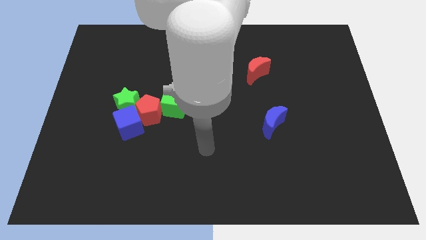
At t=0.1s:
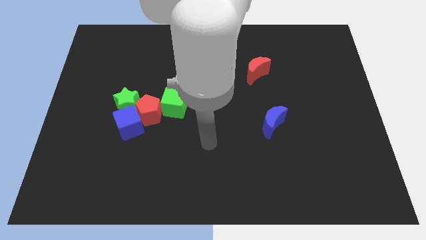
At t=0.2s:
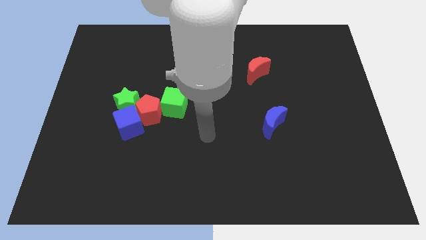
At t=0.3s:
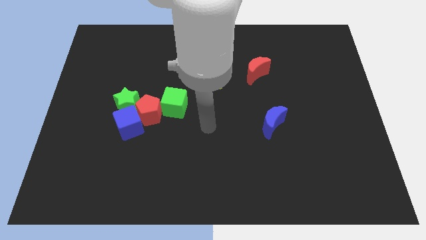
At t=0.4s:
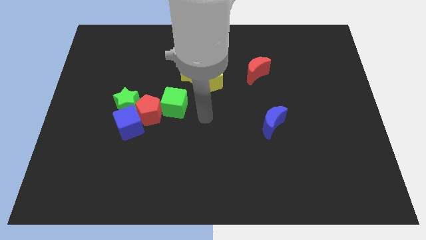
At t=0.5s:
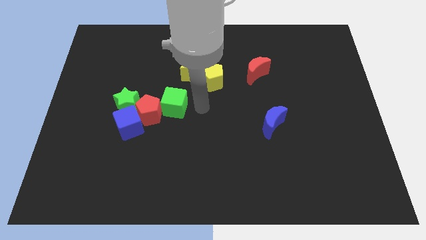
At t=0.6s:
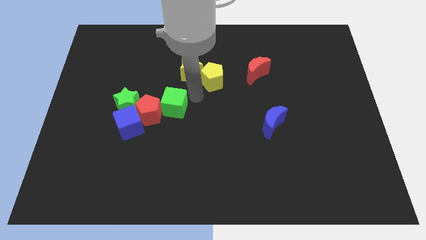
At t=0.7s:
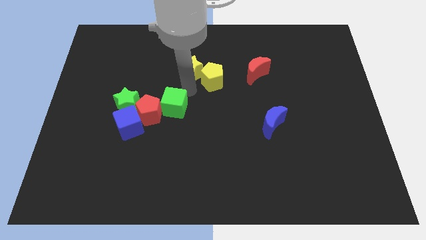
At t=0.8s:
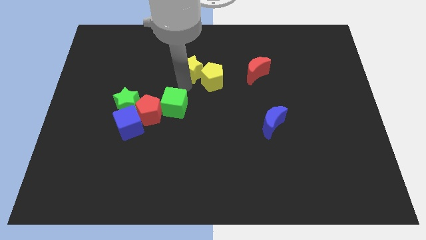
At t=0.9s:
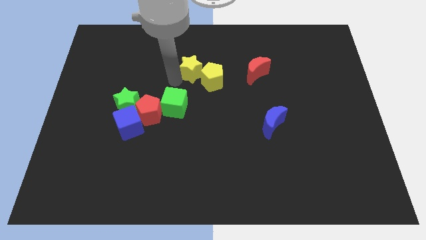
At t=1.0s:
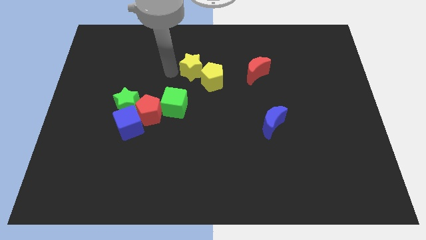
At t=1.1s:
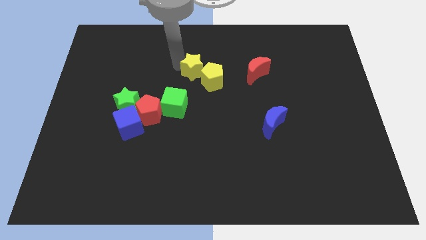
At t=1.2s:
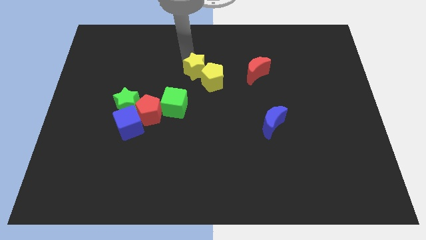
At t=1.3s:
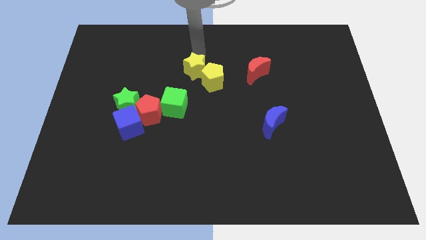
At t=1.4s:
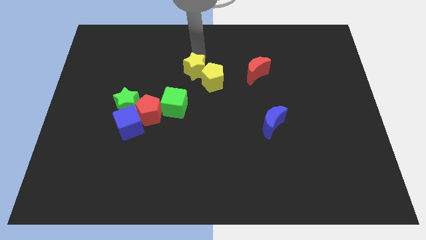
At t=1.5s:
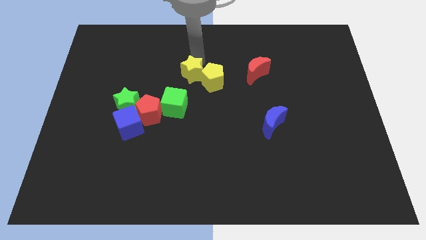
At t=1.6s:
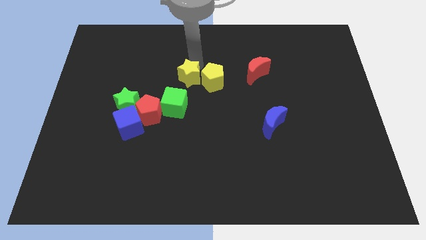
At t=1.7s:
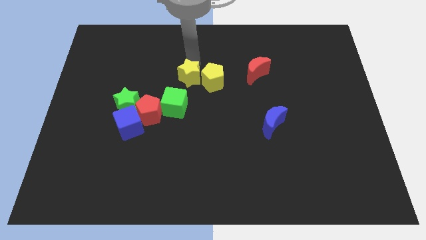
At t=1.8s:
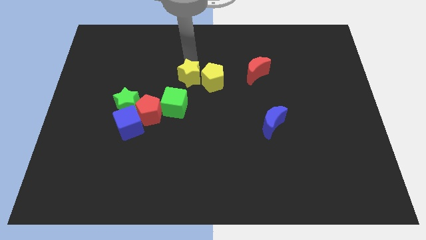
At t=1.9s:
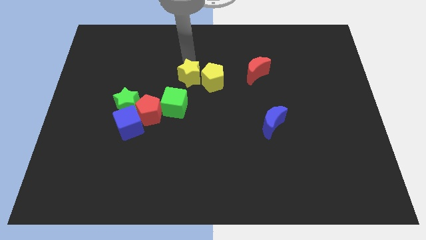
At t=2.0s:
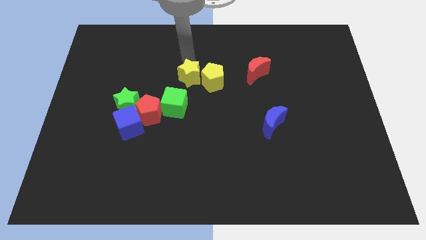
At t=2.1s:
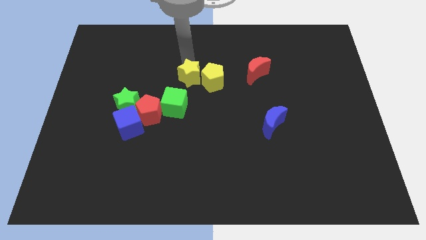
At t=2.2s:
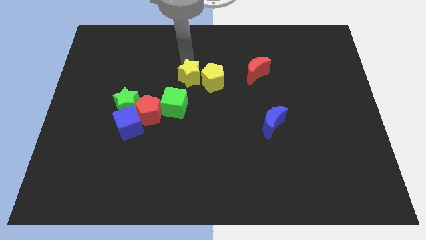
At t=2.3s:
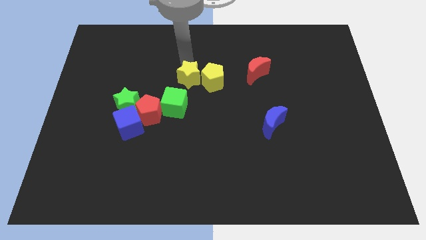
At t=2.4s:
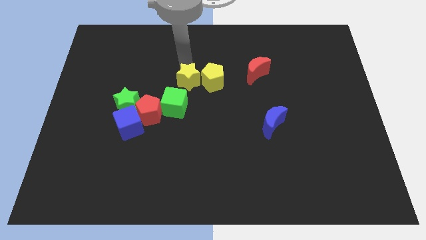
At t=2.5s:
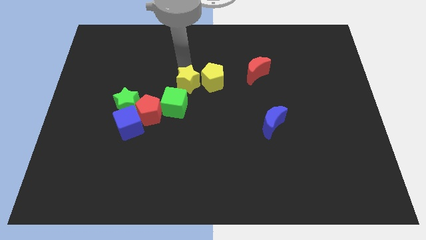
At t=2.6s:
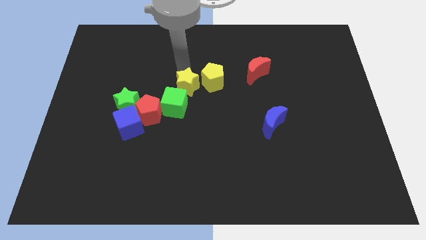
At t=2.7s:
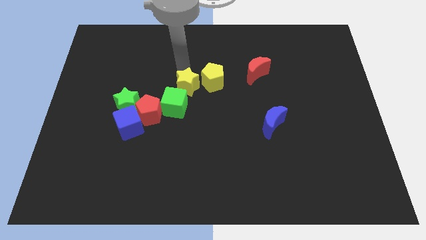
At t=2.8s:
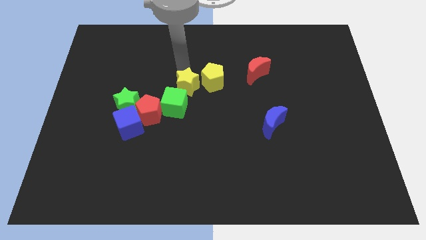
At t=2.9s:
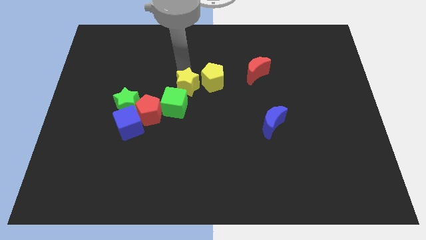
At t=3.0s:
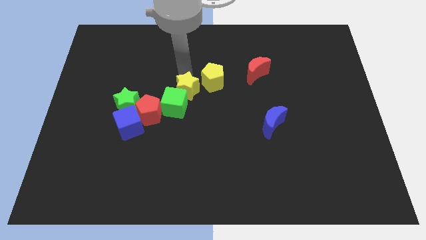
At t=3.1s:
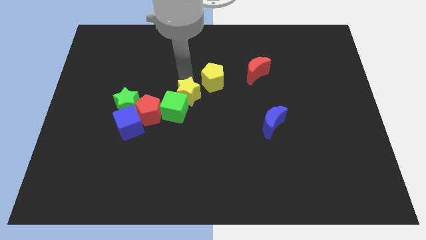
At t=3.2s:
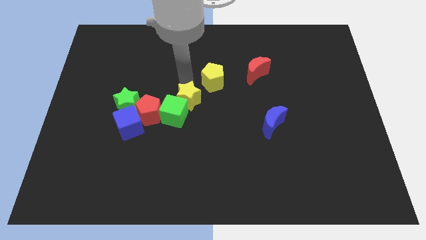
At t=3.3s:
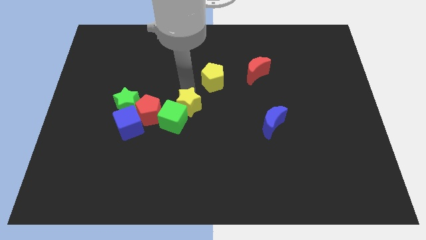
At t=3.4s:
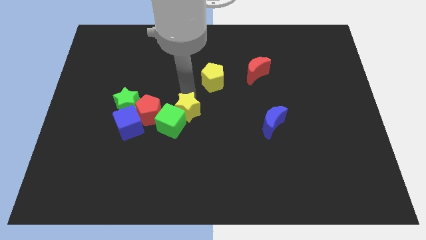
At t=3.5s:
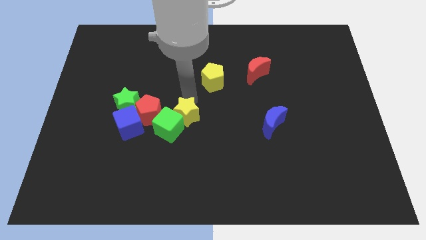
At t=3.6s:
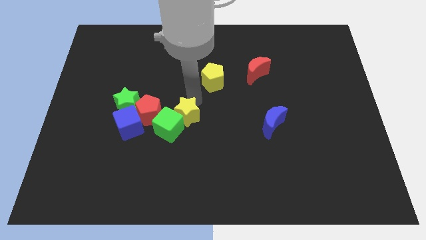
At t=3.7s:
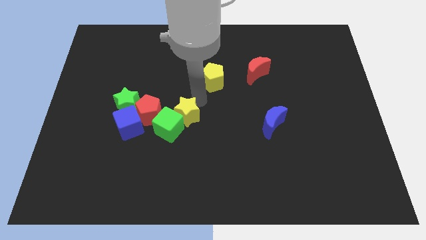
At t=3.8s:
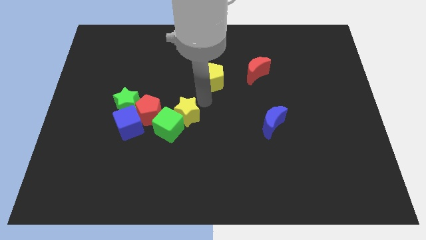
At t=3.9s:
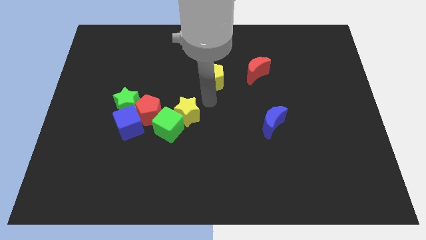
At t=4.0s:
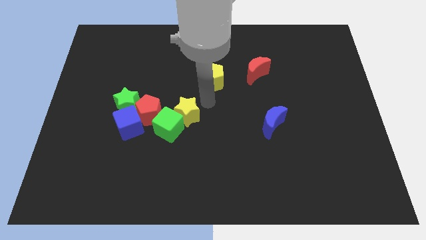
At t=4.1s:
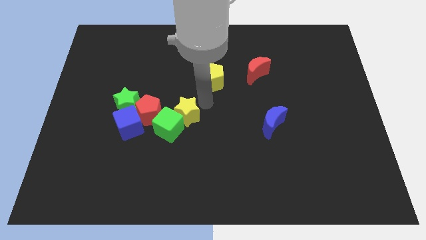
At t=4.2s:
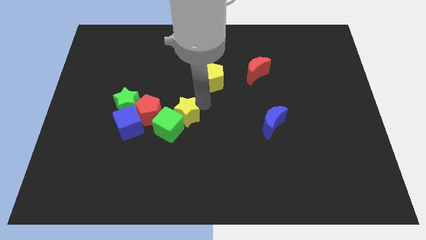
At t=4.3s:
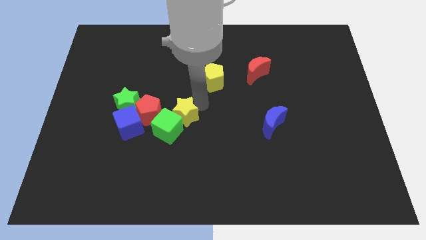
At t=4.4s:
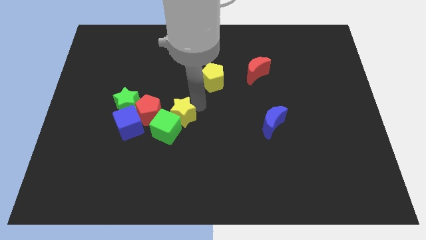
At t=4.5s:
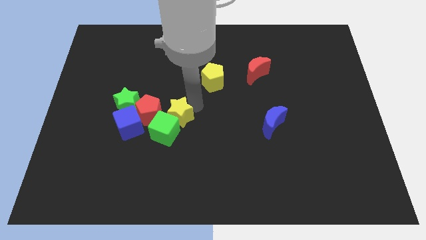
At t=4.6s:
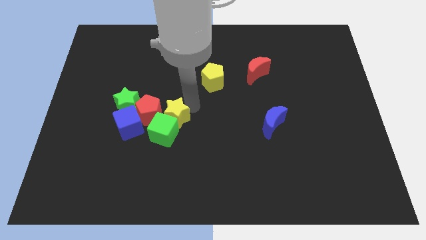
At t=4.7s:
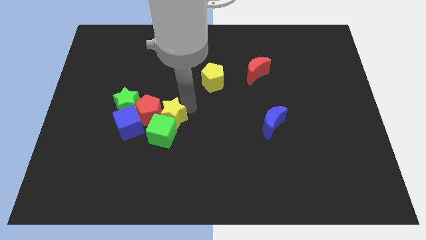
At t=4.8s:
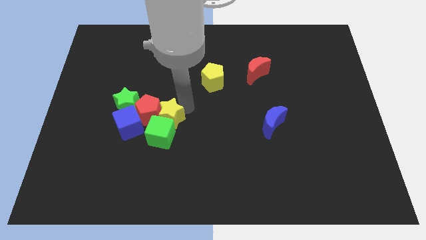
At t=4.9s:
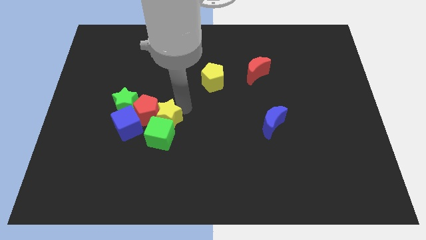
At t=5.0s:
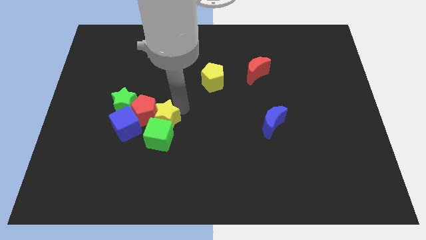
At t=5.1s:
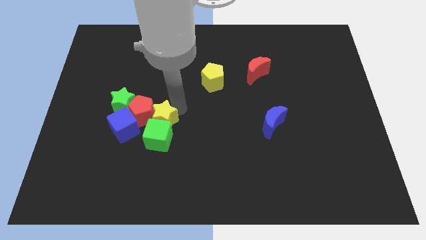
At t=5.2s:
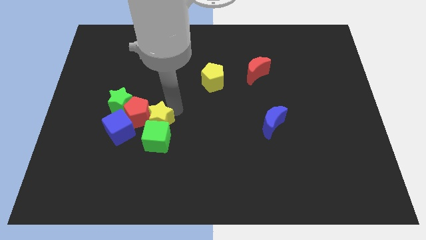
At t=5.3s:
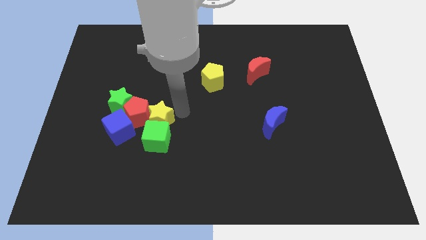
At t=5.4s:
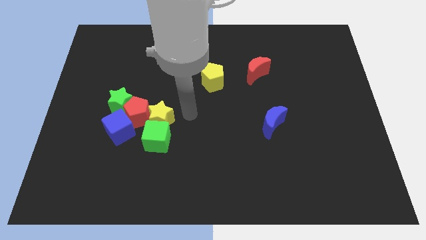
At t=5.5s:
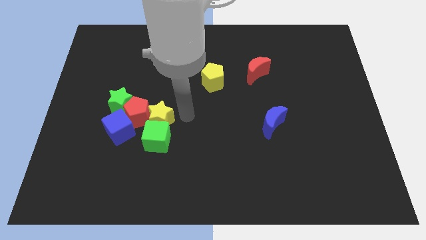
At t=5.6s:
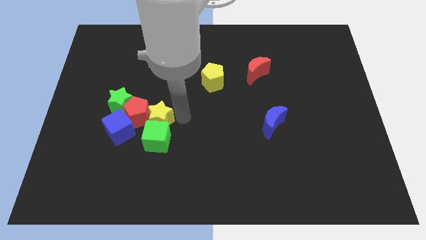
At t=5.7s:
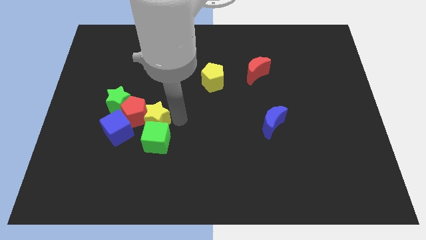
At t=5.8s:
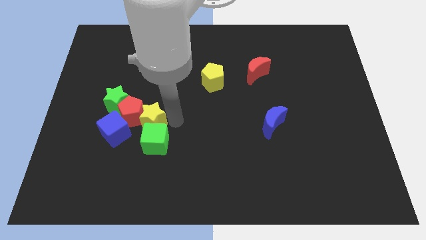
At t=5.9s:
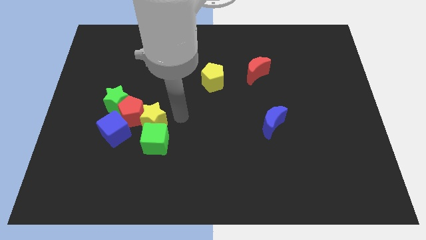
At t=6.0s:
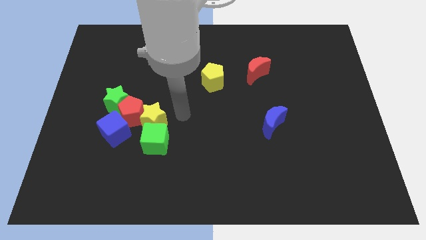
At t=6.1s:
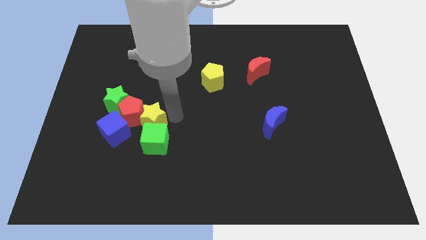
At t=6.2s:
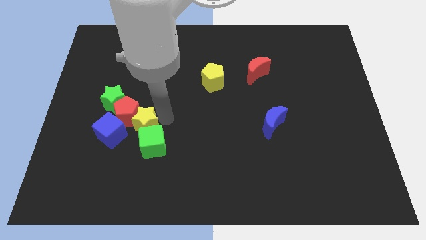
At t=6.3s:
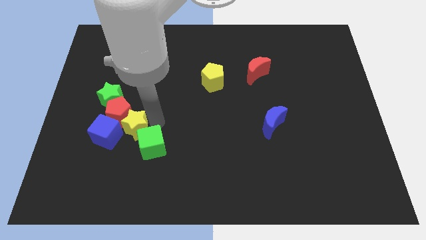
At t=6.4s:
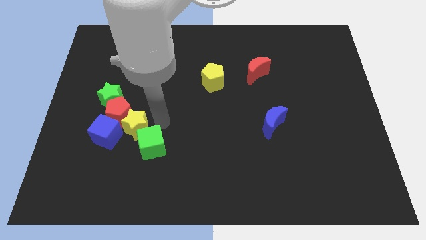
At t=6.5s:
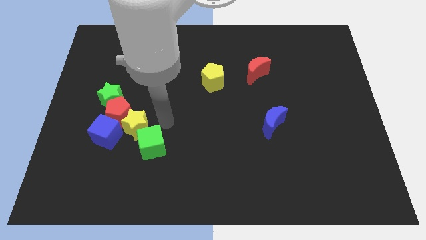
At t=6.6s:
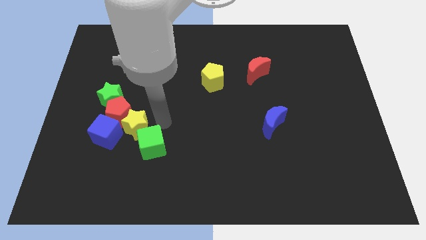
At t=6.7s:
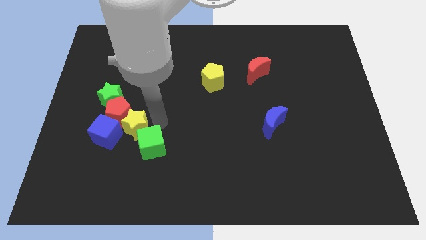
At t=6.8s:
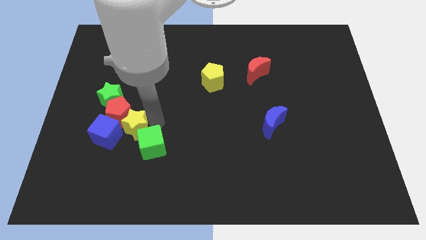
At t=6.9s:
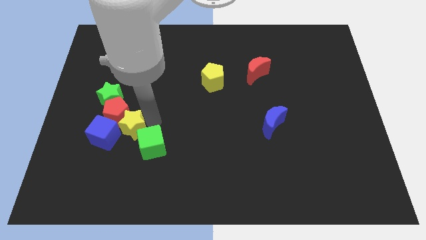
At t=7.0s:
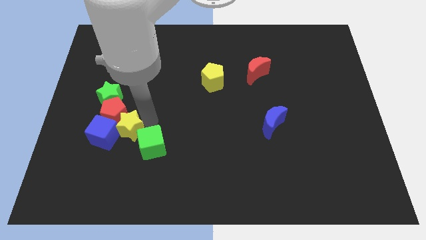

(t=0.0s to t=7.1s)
push the yellow star next to the blue cube
